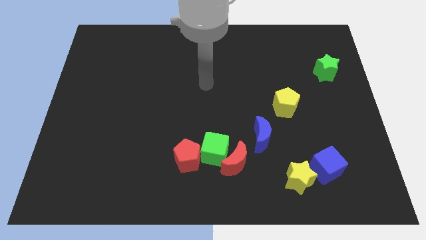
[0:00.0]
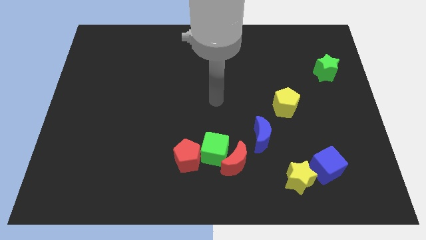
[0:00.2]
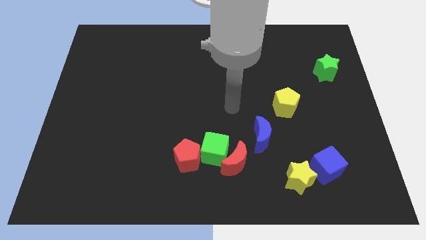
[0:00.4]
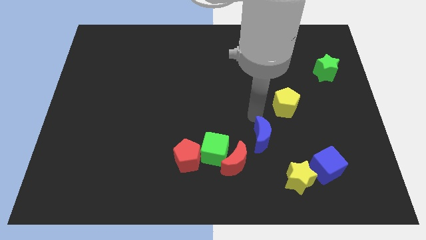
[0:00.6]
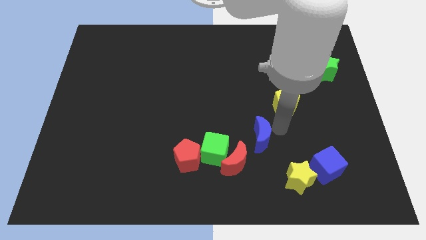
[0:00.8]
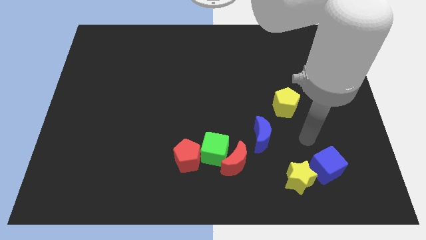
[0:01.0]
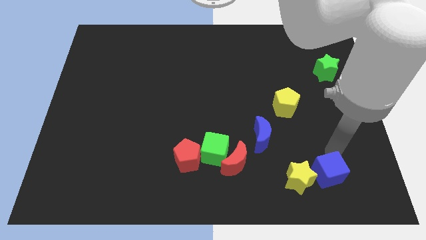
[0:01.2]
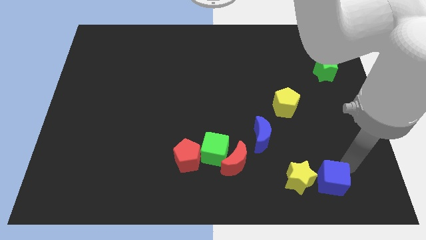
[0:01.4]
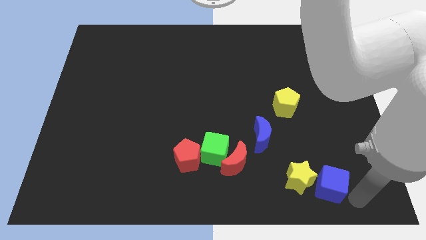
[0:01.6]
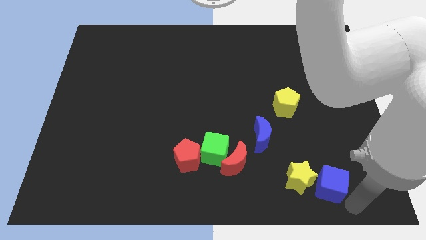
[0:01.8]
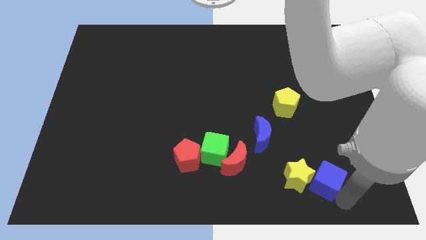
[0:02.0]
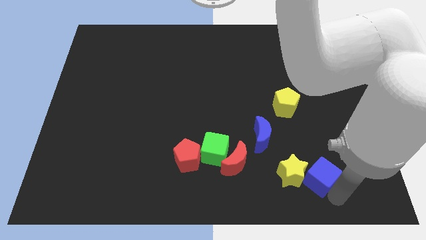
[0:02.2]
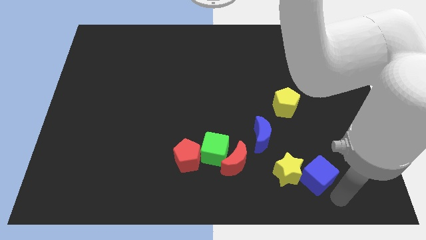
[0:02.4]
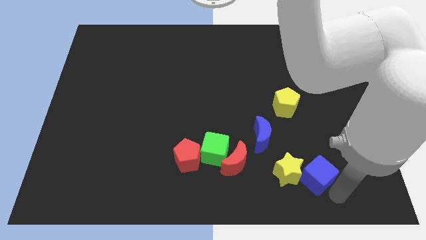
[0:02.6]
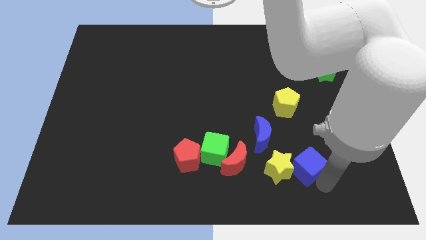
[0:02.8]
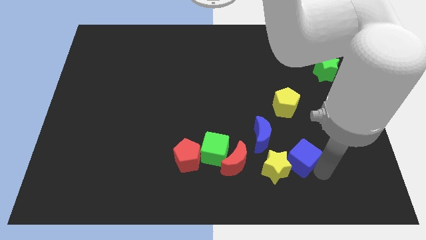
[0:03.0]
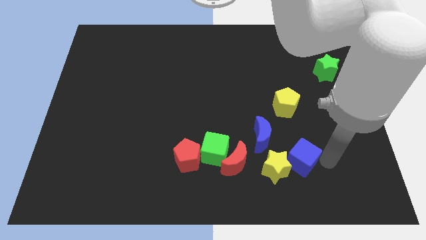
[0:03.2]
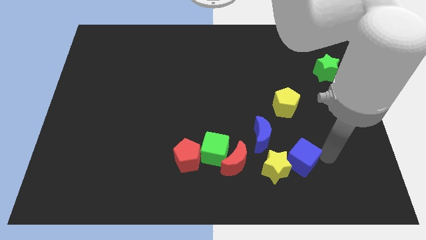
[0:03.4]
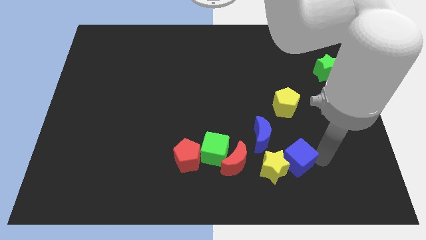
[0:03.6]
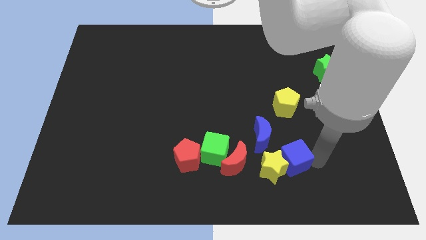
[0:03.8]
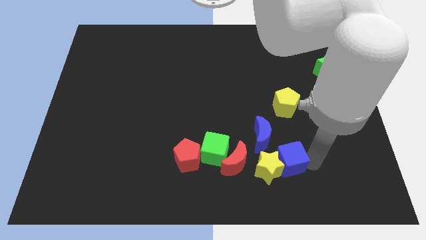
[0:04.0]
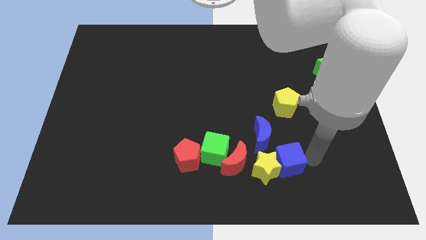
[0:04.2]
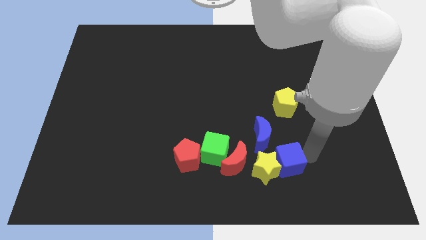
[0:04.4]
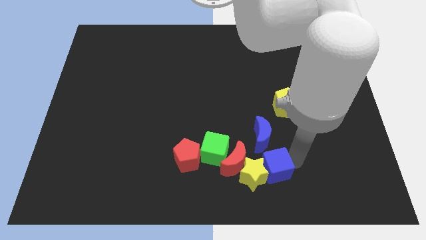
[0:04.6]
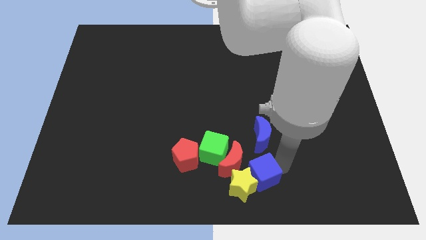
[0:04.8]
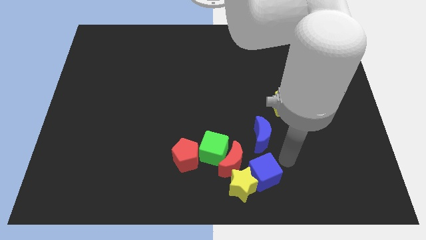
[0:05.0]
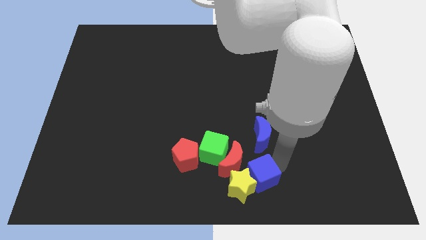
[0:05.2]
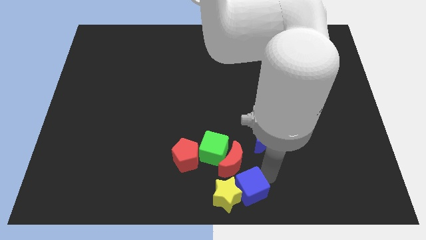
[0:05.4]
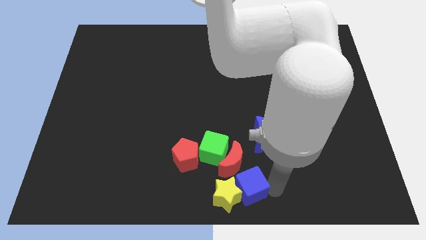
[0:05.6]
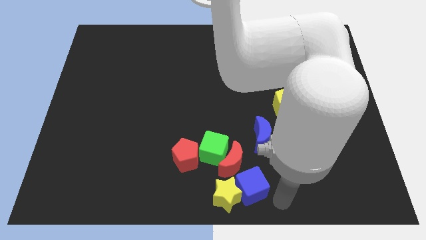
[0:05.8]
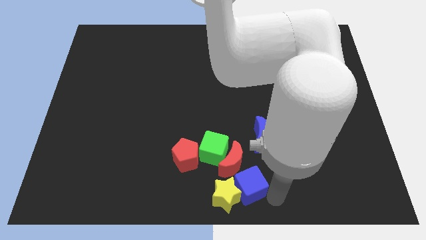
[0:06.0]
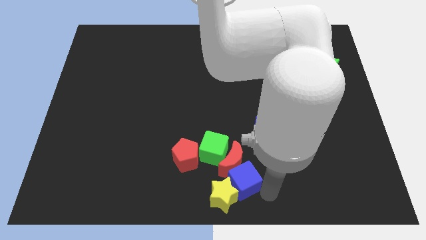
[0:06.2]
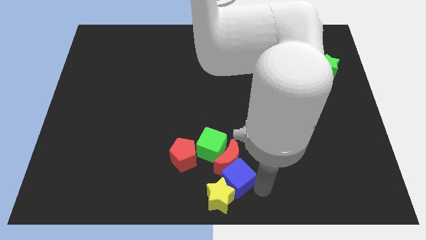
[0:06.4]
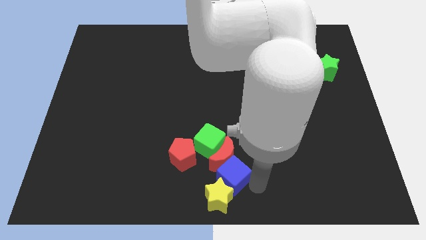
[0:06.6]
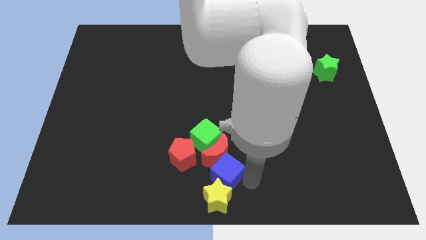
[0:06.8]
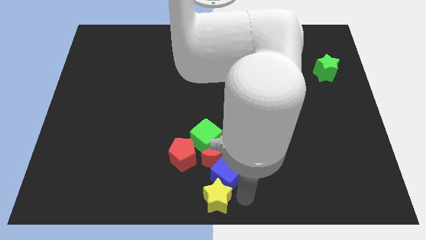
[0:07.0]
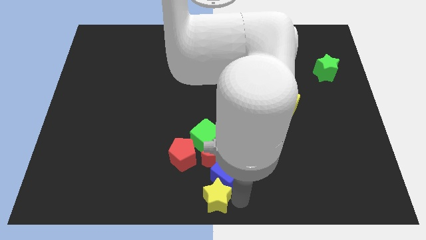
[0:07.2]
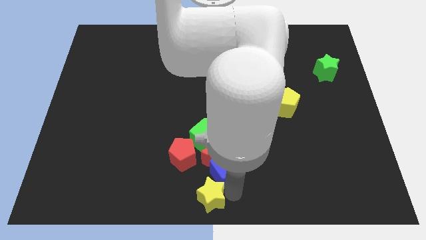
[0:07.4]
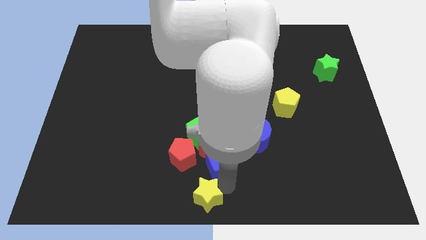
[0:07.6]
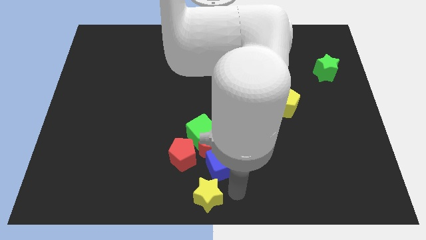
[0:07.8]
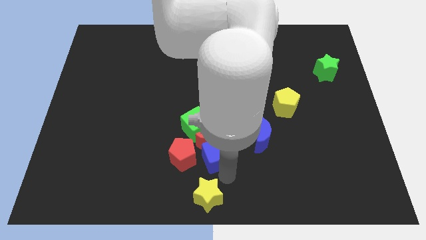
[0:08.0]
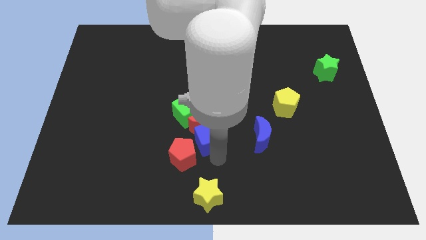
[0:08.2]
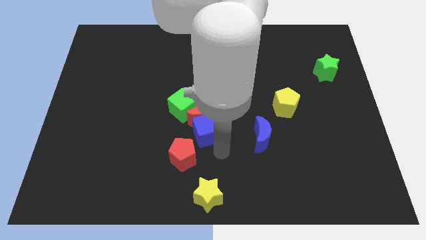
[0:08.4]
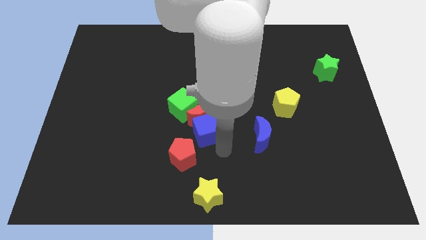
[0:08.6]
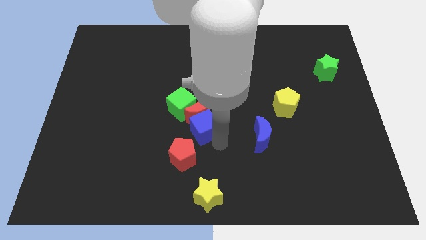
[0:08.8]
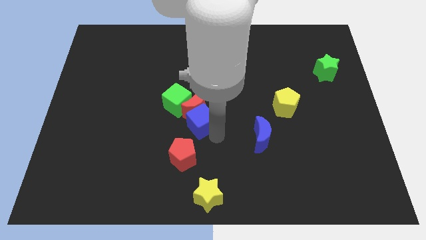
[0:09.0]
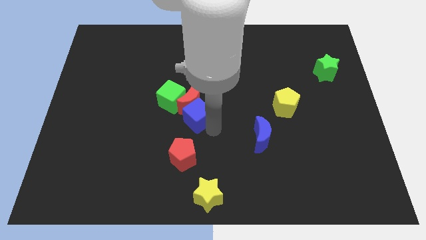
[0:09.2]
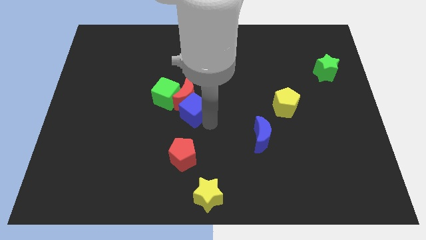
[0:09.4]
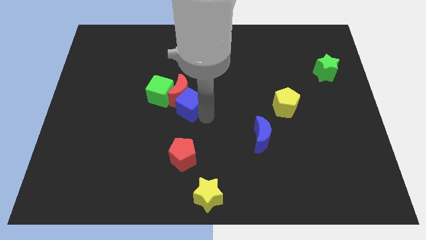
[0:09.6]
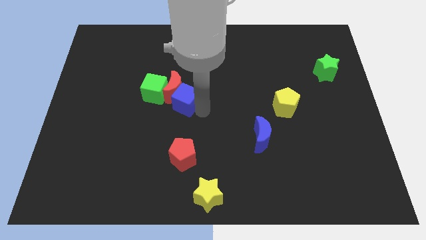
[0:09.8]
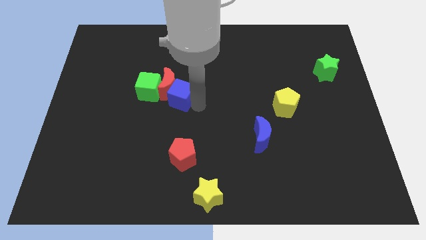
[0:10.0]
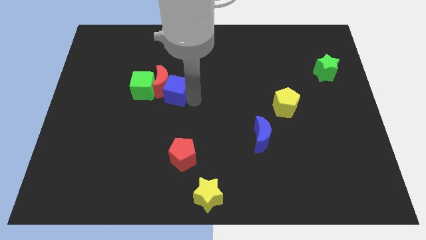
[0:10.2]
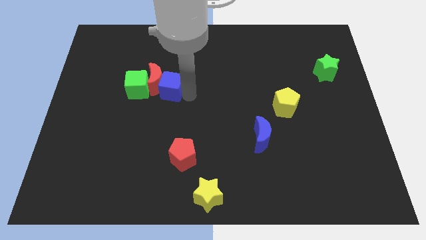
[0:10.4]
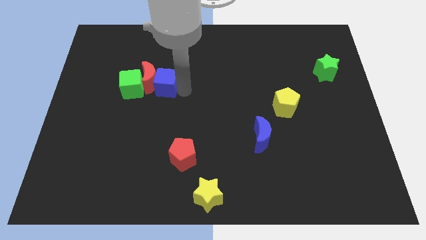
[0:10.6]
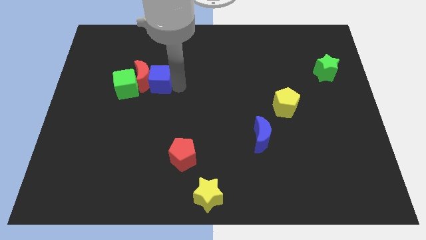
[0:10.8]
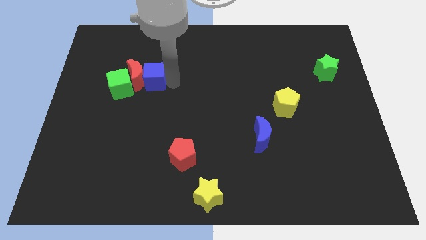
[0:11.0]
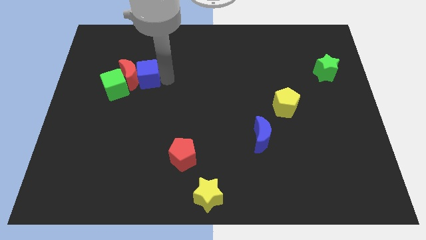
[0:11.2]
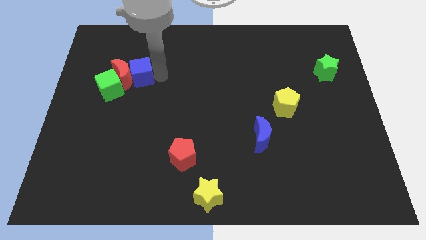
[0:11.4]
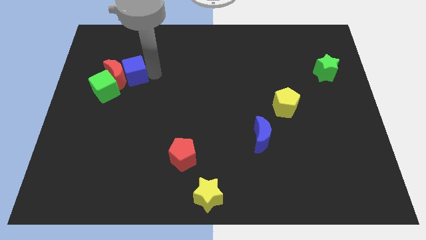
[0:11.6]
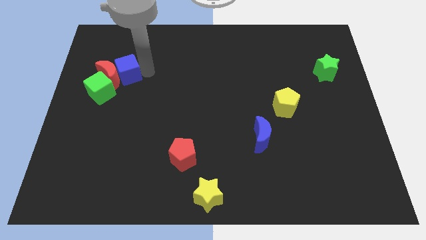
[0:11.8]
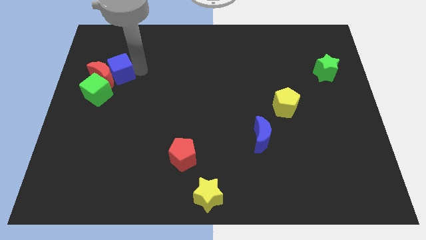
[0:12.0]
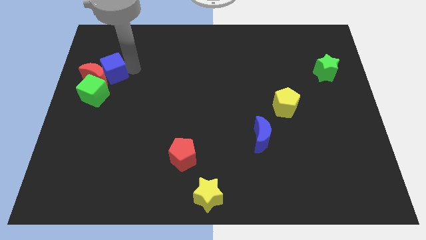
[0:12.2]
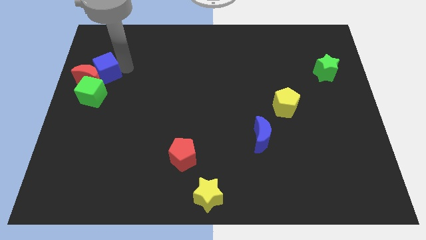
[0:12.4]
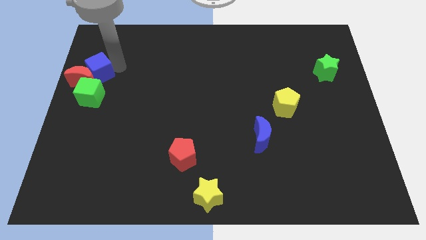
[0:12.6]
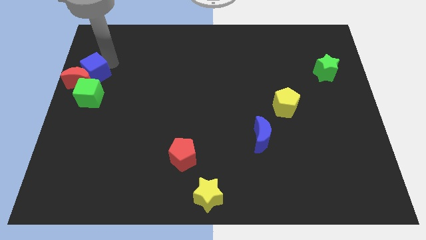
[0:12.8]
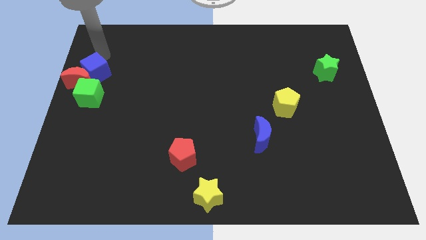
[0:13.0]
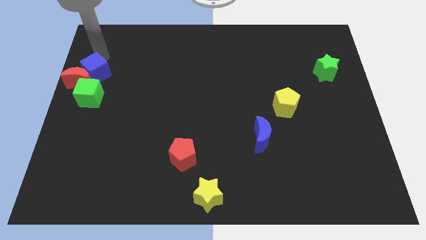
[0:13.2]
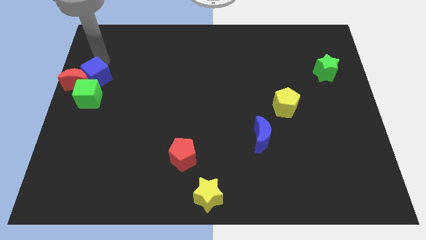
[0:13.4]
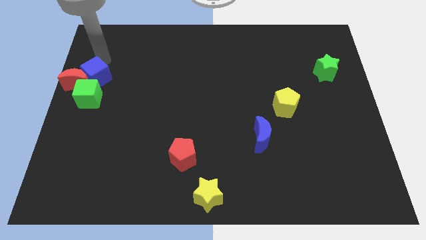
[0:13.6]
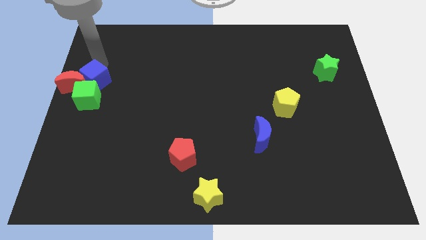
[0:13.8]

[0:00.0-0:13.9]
put the blue cube close to the green cube
